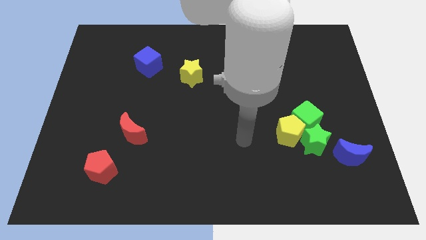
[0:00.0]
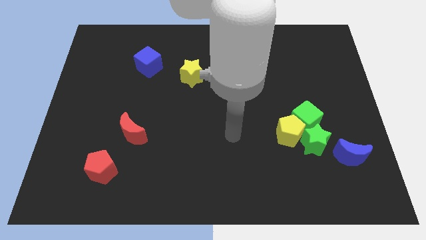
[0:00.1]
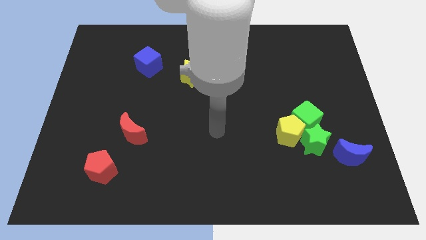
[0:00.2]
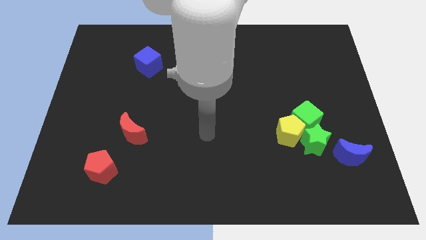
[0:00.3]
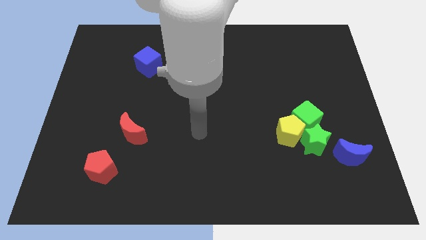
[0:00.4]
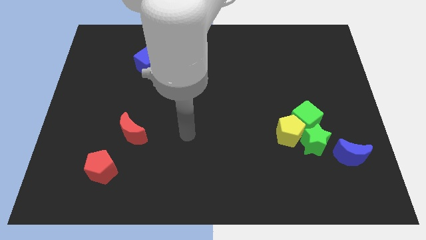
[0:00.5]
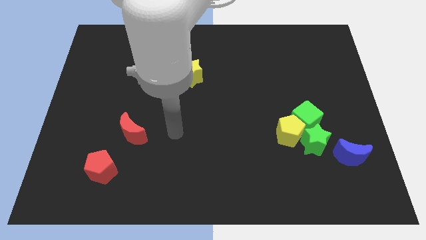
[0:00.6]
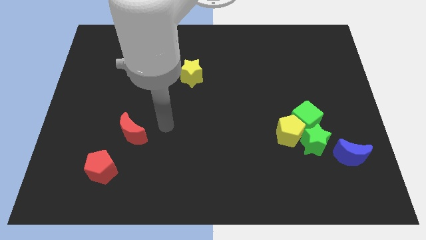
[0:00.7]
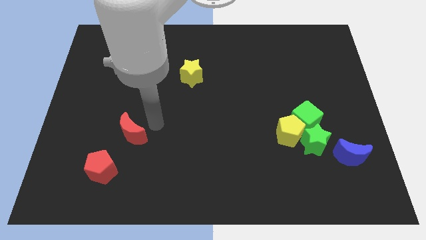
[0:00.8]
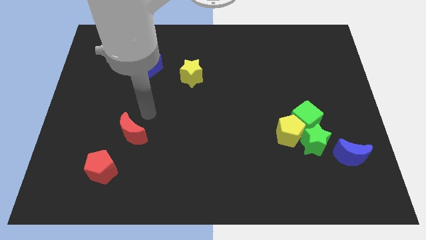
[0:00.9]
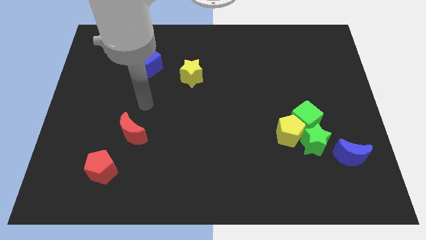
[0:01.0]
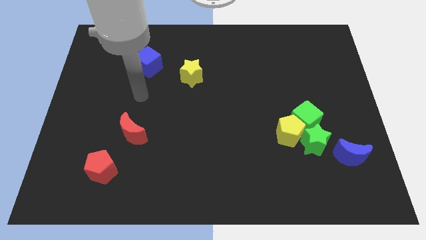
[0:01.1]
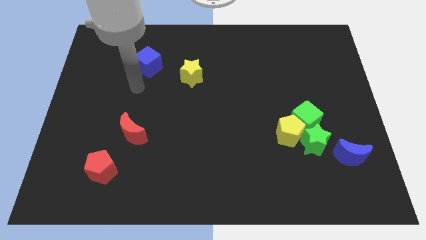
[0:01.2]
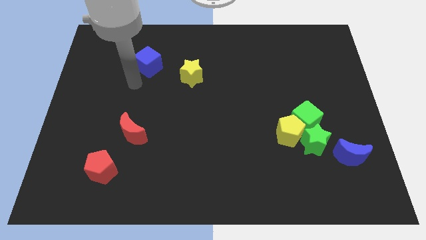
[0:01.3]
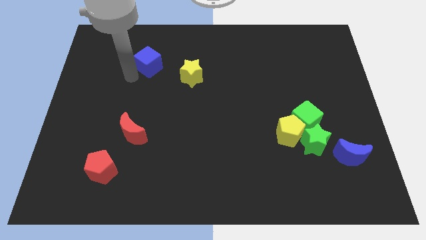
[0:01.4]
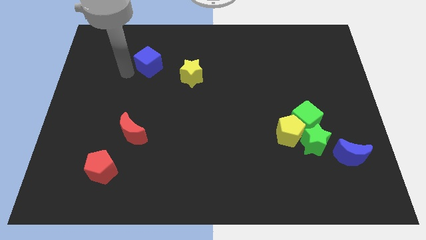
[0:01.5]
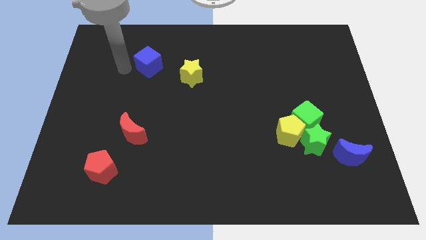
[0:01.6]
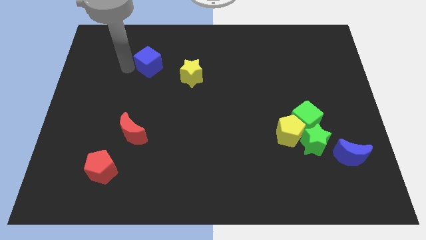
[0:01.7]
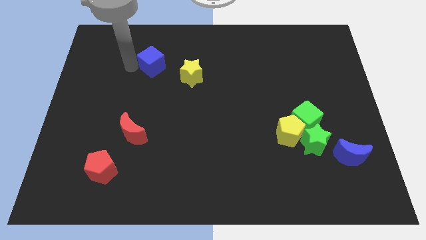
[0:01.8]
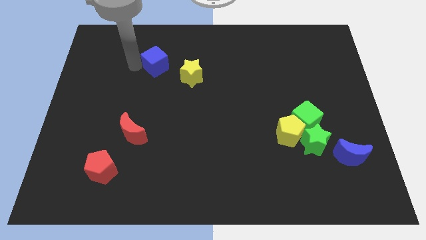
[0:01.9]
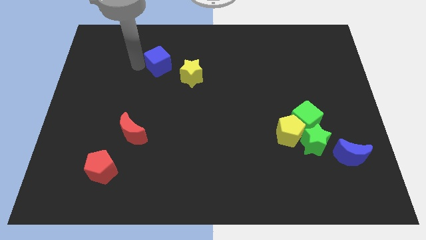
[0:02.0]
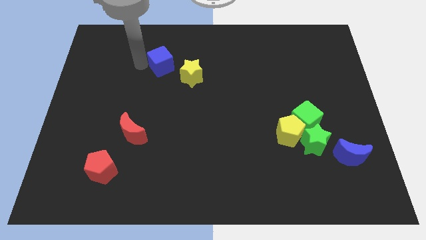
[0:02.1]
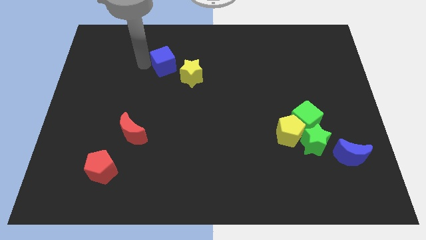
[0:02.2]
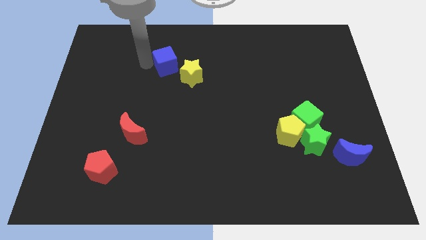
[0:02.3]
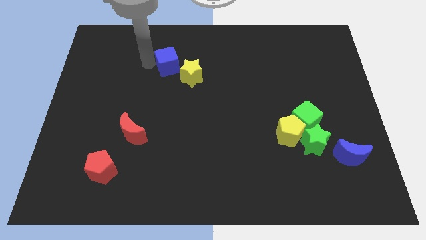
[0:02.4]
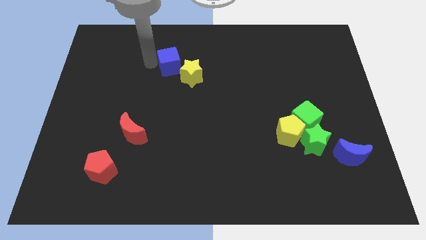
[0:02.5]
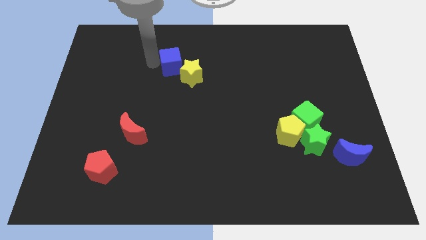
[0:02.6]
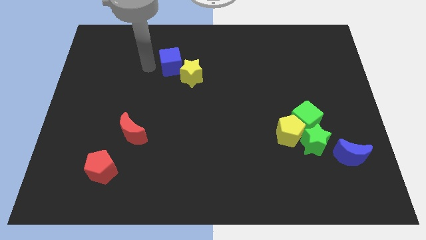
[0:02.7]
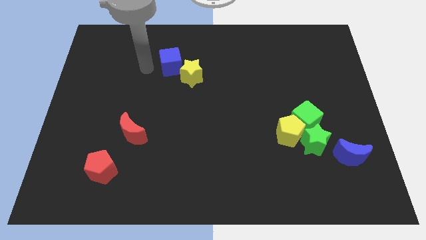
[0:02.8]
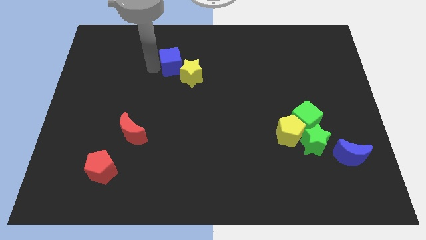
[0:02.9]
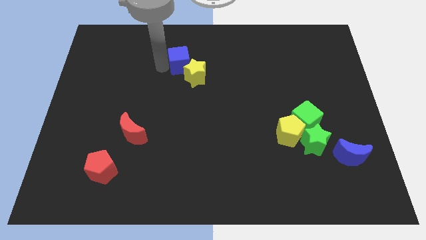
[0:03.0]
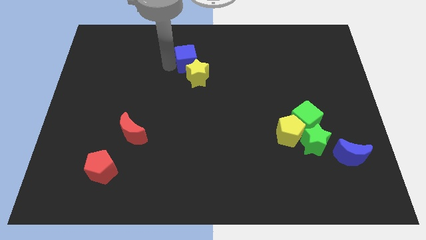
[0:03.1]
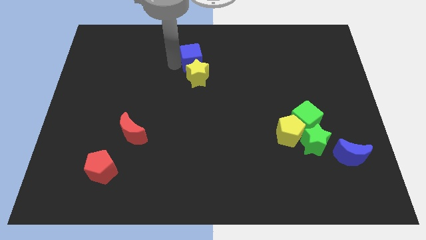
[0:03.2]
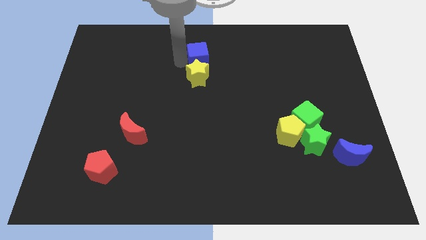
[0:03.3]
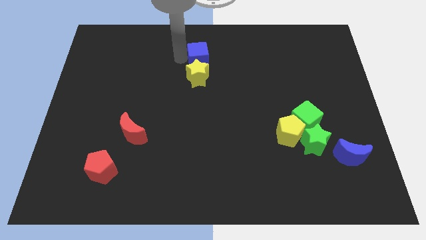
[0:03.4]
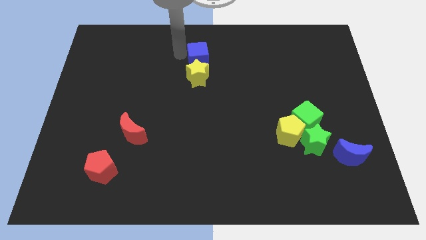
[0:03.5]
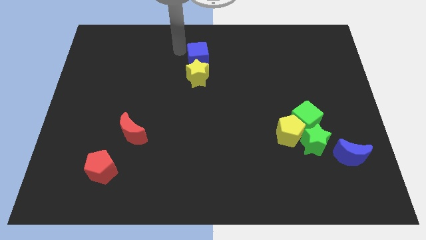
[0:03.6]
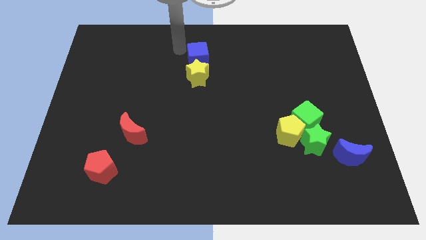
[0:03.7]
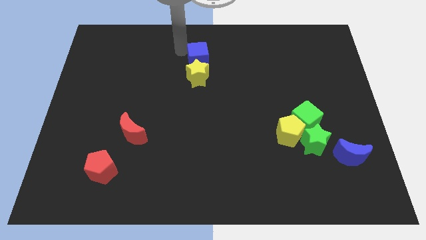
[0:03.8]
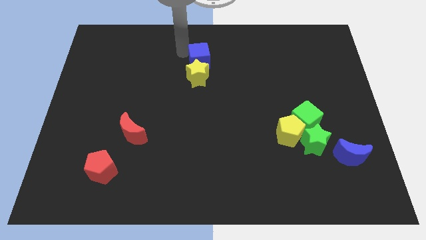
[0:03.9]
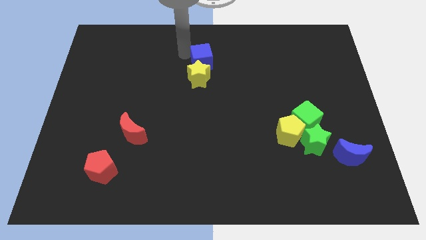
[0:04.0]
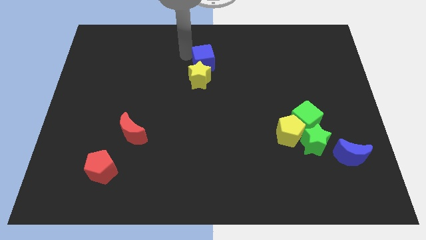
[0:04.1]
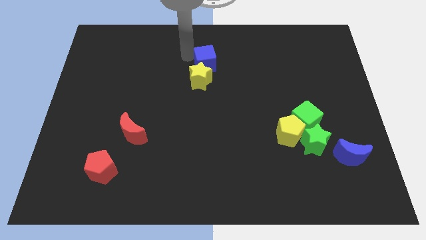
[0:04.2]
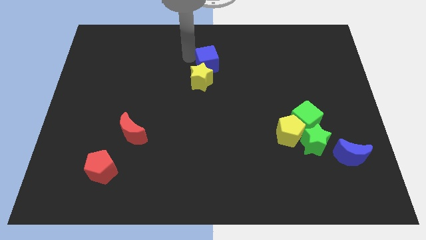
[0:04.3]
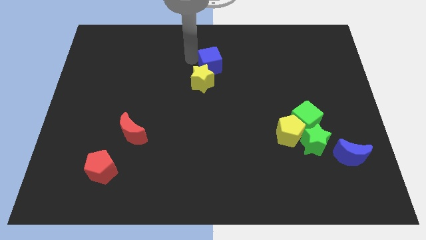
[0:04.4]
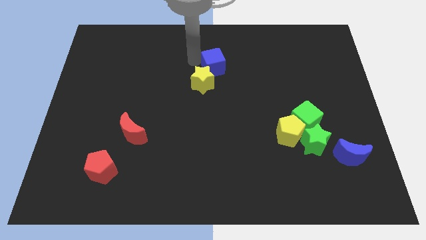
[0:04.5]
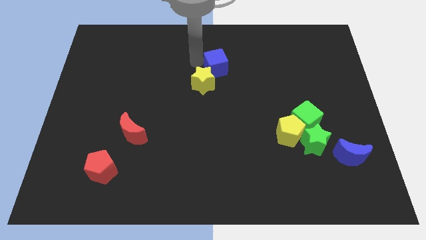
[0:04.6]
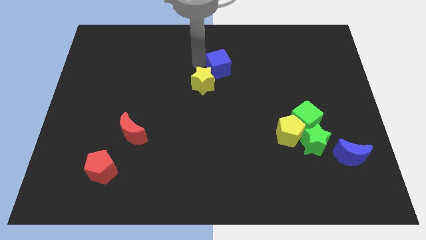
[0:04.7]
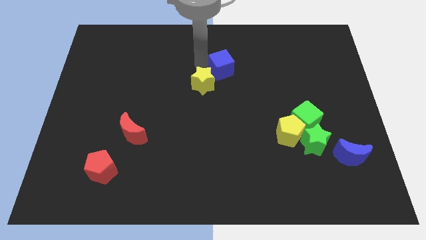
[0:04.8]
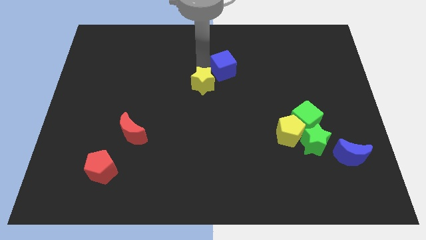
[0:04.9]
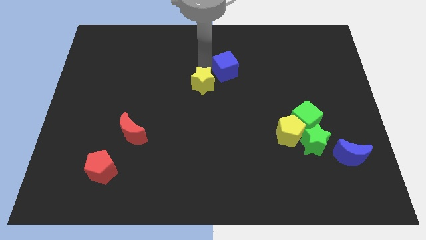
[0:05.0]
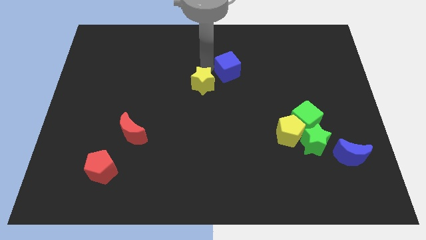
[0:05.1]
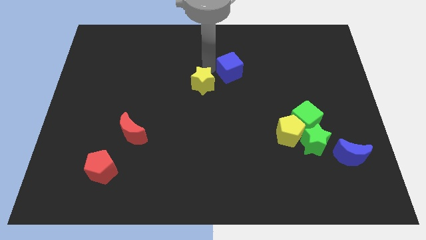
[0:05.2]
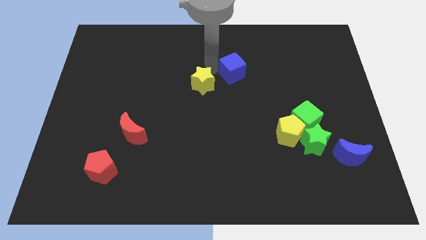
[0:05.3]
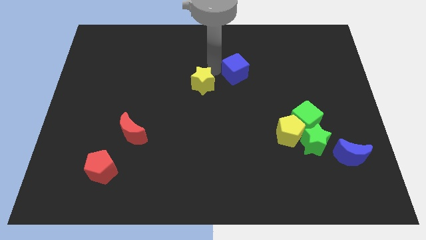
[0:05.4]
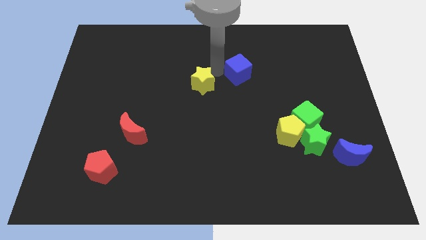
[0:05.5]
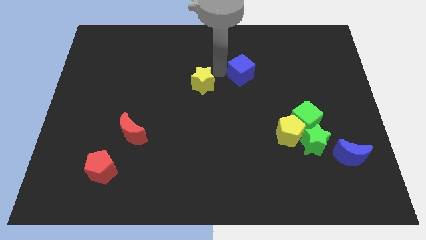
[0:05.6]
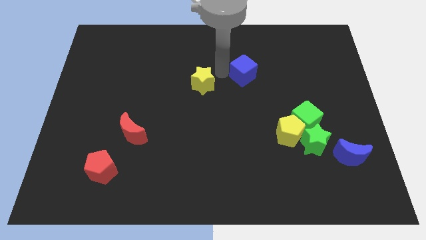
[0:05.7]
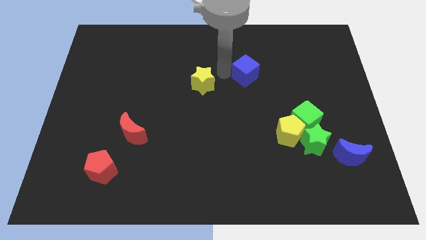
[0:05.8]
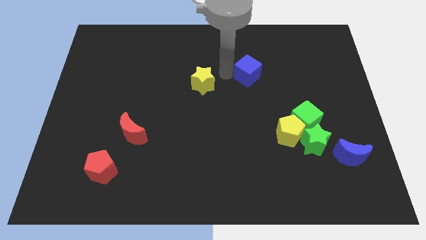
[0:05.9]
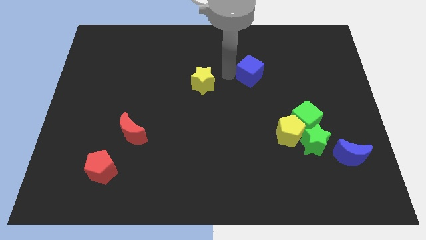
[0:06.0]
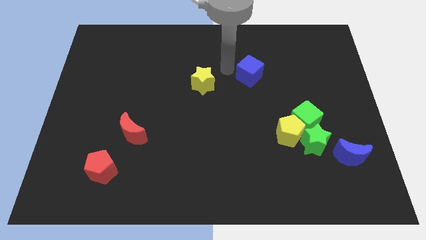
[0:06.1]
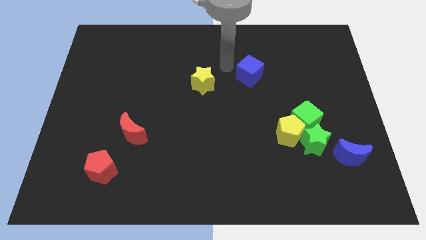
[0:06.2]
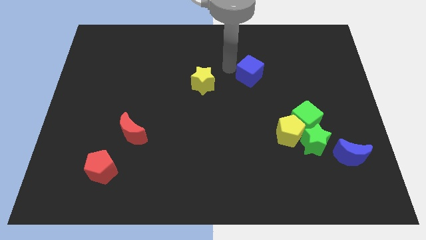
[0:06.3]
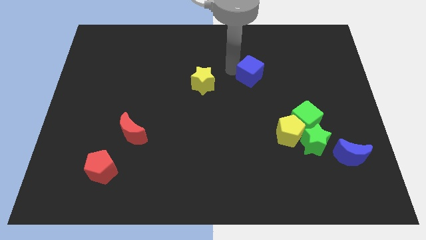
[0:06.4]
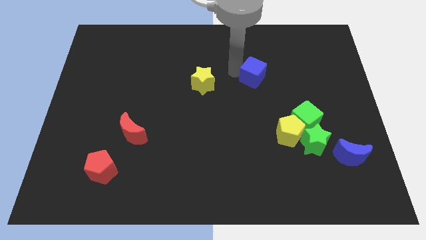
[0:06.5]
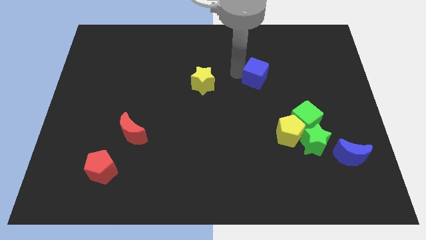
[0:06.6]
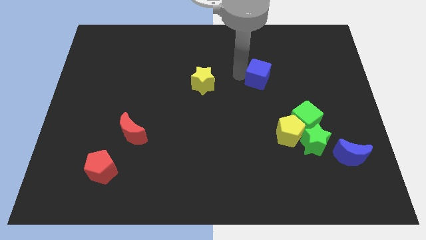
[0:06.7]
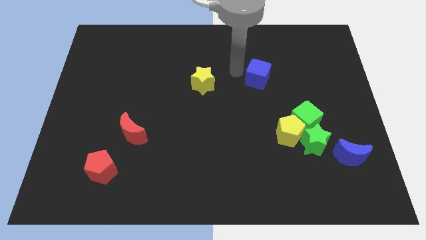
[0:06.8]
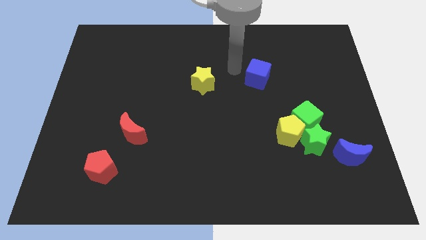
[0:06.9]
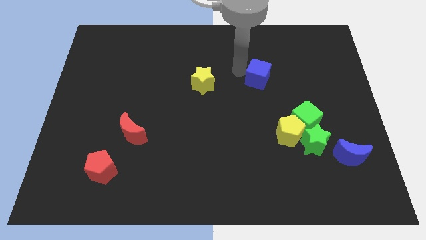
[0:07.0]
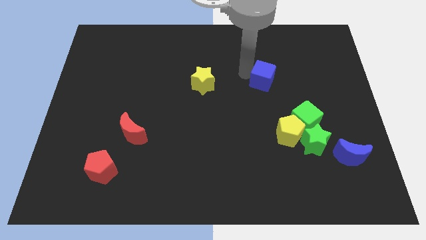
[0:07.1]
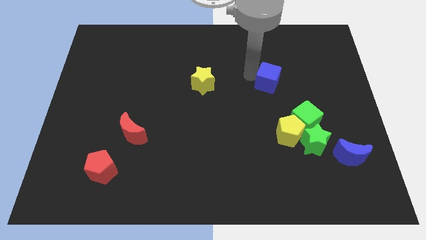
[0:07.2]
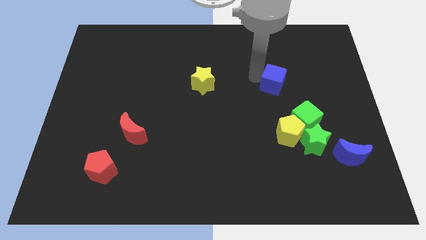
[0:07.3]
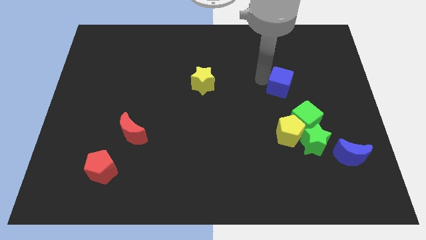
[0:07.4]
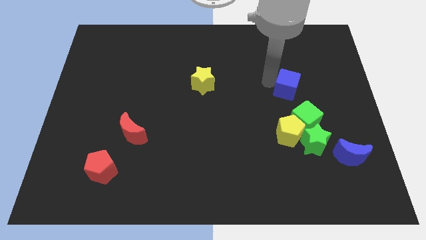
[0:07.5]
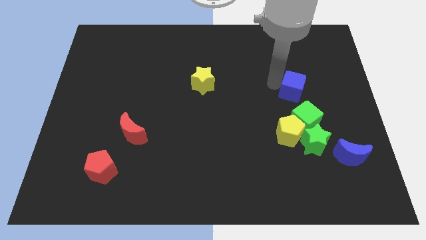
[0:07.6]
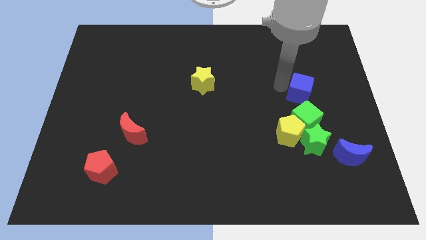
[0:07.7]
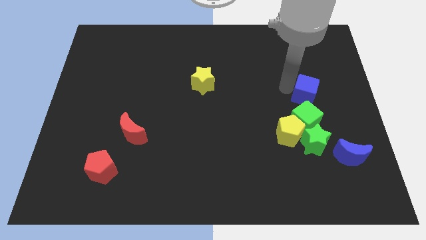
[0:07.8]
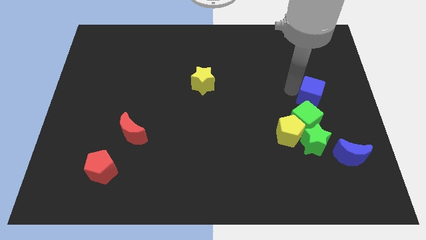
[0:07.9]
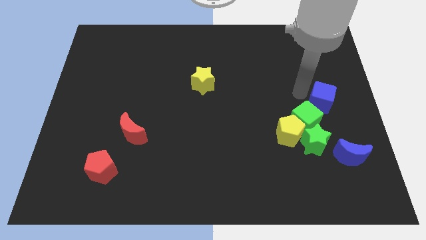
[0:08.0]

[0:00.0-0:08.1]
slide the blue cube to the right side of the board

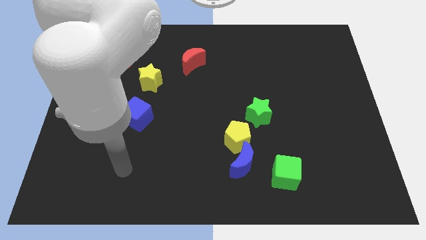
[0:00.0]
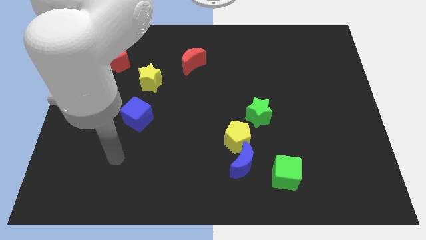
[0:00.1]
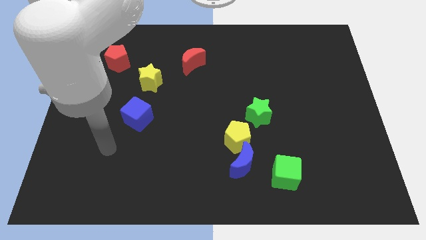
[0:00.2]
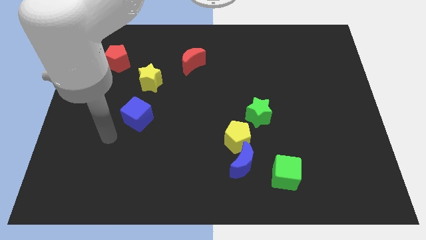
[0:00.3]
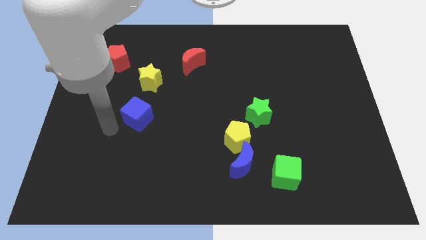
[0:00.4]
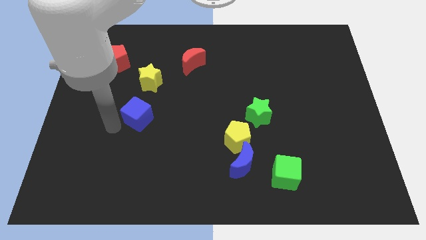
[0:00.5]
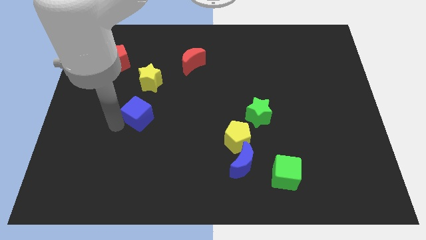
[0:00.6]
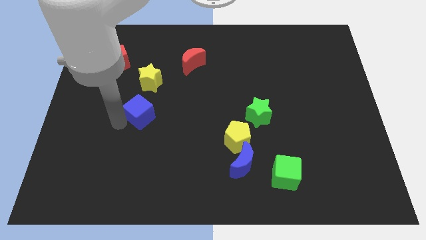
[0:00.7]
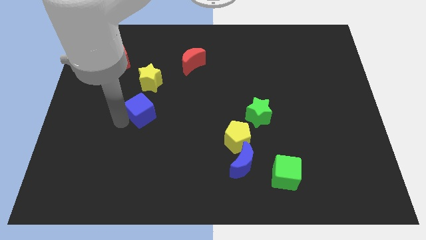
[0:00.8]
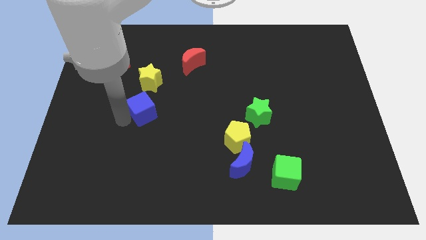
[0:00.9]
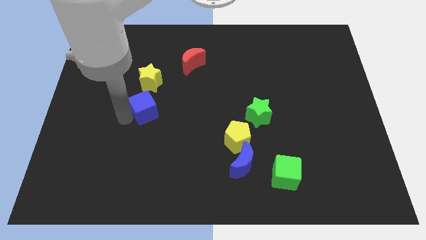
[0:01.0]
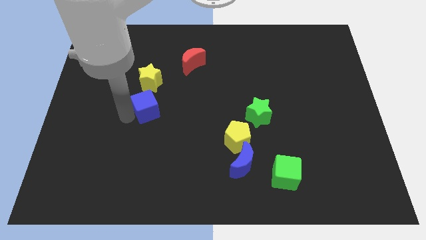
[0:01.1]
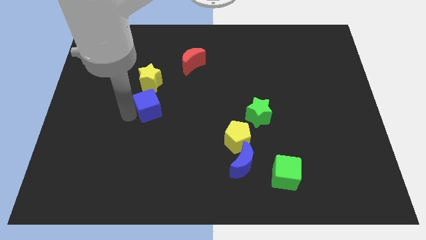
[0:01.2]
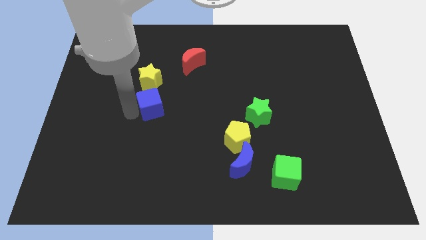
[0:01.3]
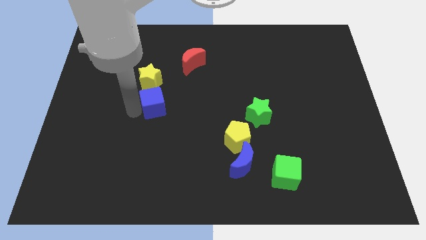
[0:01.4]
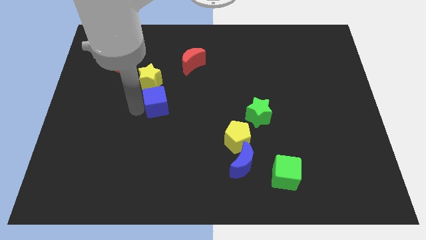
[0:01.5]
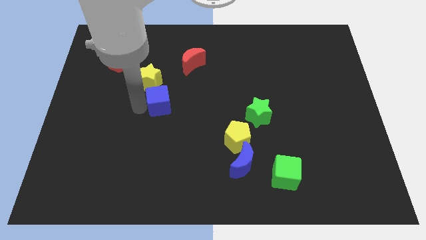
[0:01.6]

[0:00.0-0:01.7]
move the blue cube to the center of the board
